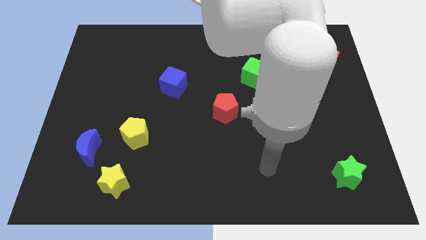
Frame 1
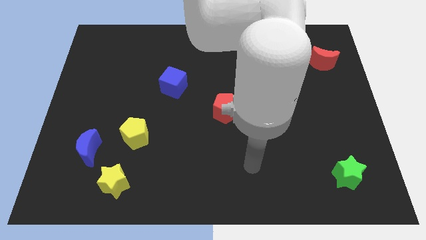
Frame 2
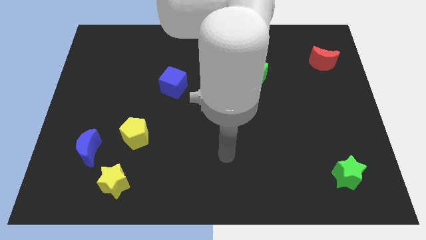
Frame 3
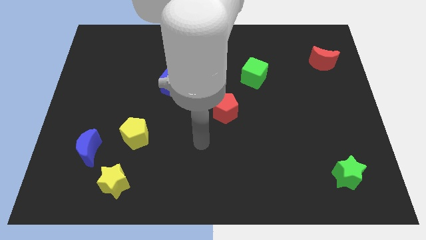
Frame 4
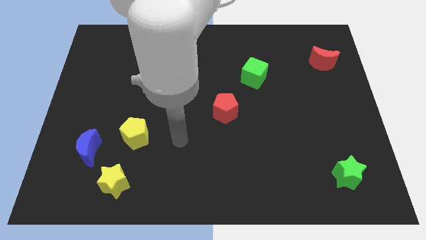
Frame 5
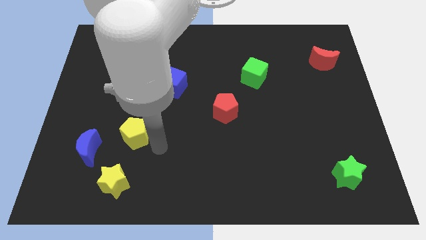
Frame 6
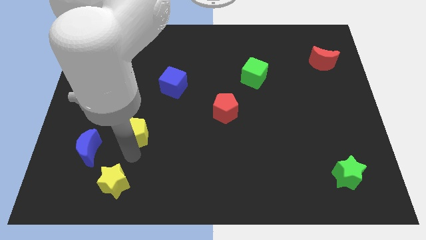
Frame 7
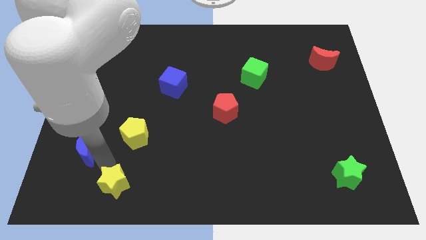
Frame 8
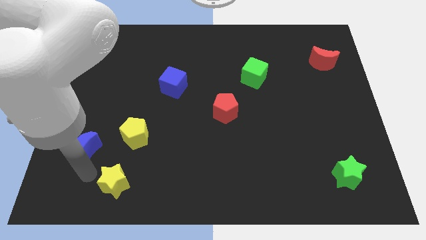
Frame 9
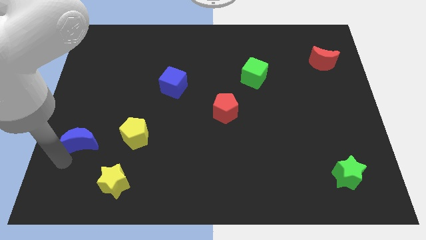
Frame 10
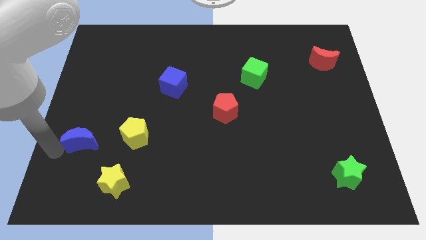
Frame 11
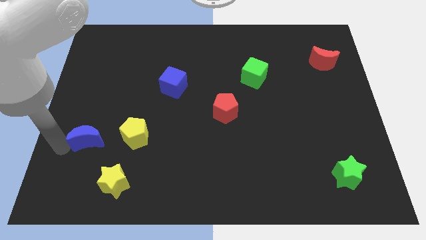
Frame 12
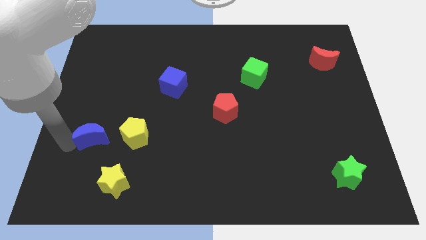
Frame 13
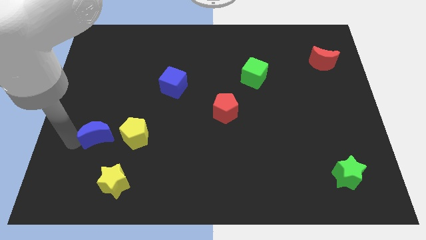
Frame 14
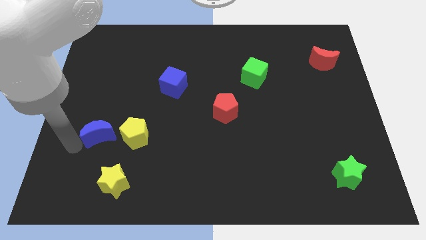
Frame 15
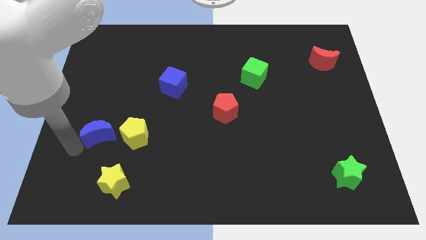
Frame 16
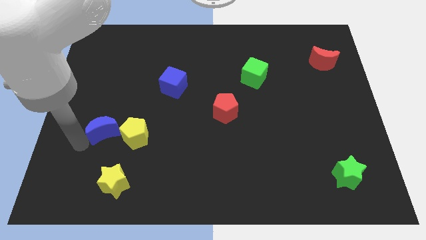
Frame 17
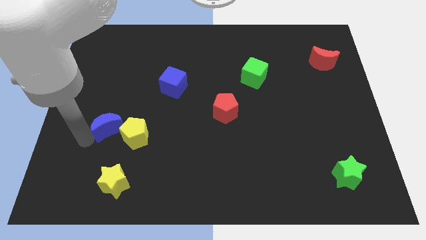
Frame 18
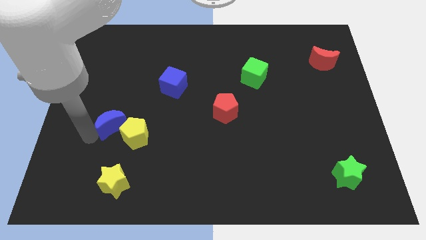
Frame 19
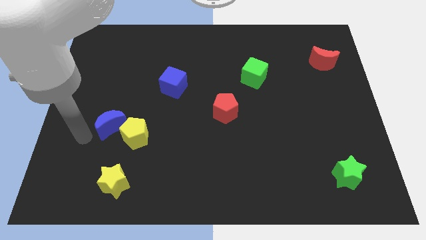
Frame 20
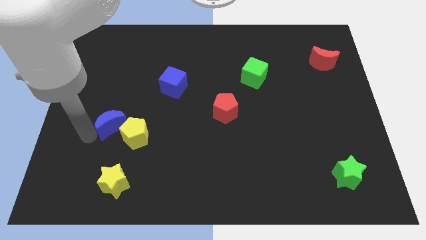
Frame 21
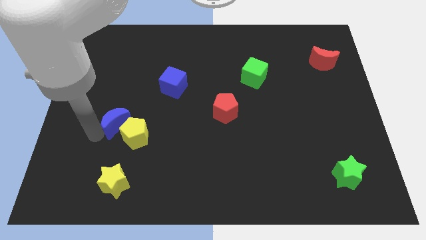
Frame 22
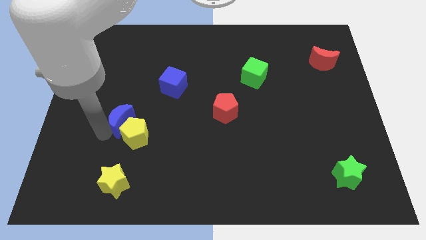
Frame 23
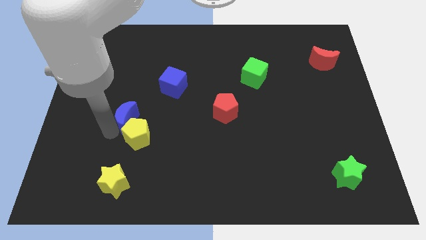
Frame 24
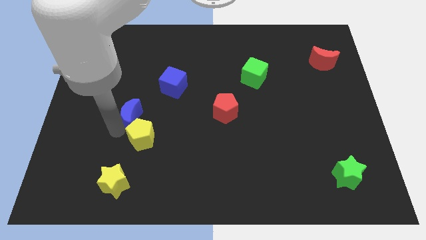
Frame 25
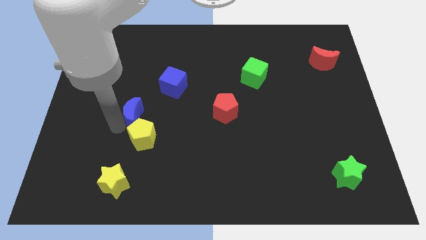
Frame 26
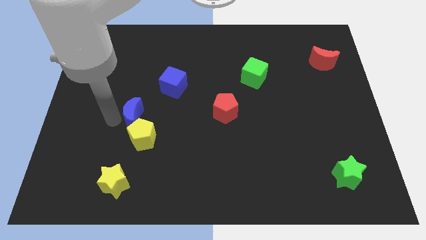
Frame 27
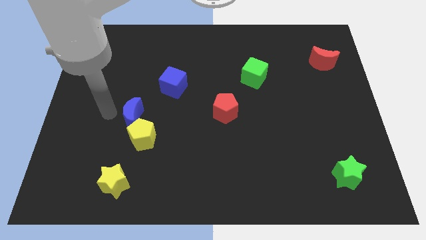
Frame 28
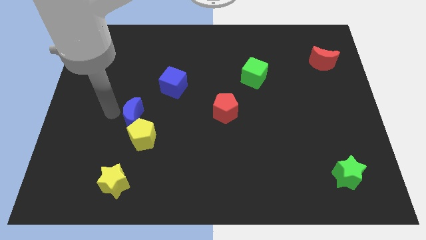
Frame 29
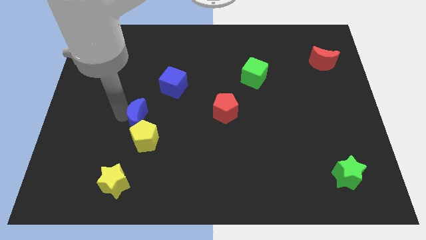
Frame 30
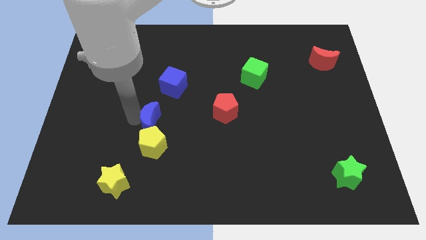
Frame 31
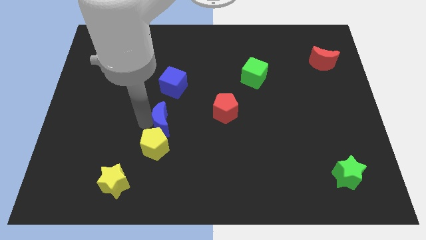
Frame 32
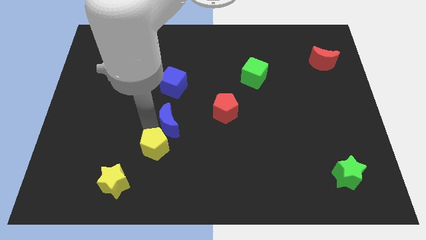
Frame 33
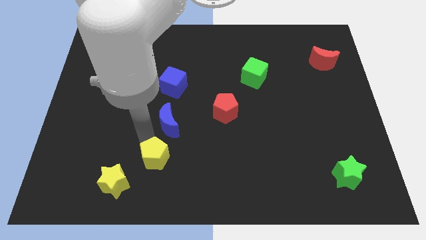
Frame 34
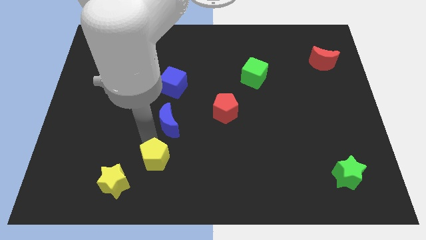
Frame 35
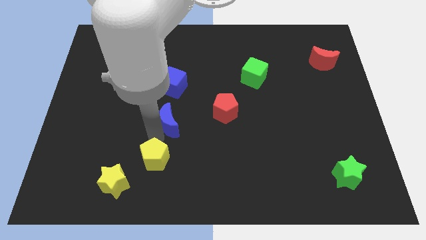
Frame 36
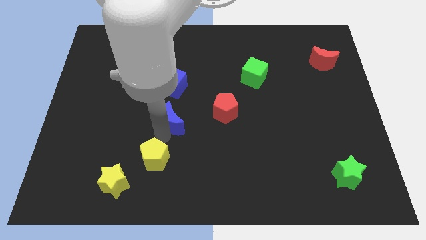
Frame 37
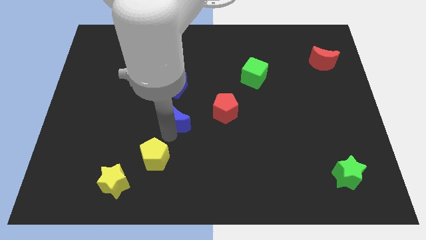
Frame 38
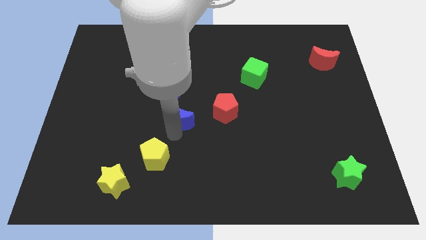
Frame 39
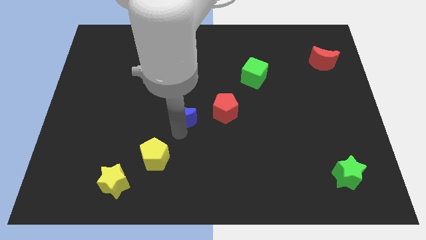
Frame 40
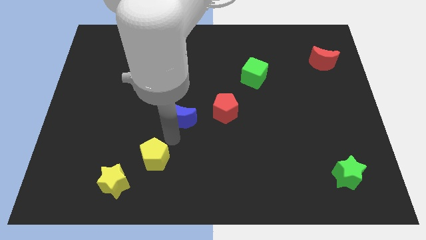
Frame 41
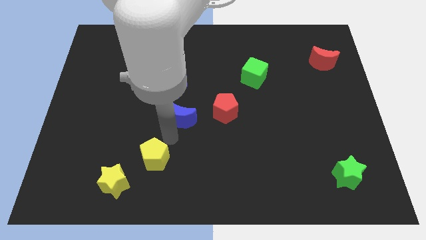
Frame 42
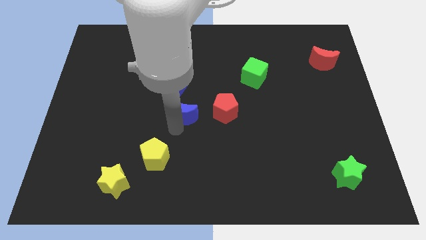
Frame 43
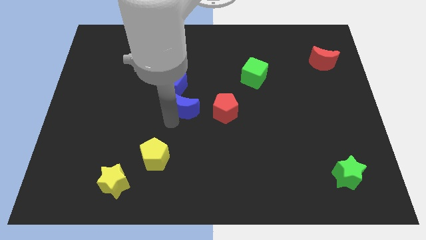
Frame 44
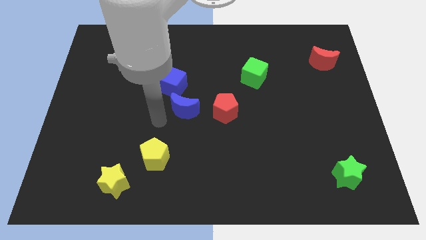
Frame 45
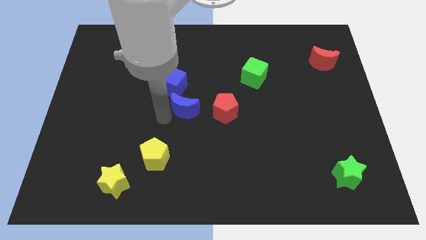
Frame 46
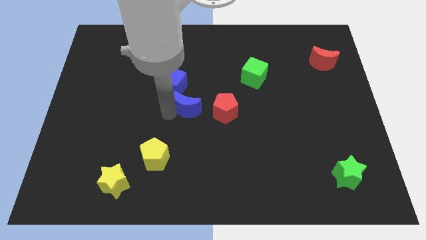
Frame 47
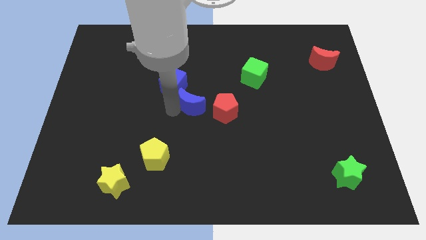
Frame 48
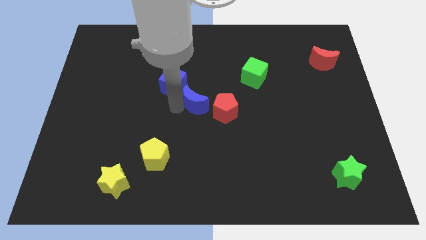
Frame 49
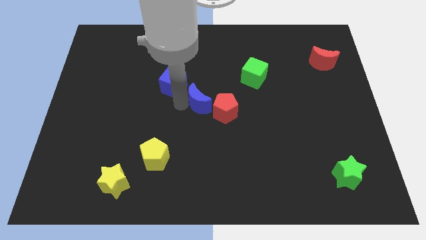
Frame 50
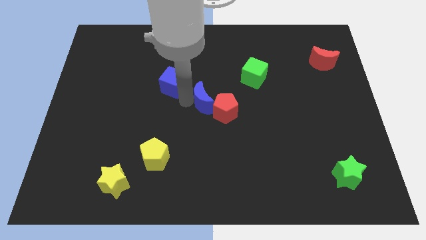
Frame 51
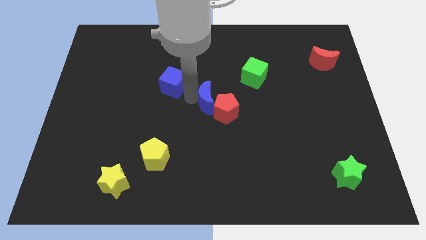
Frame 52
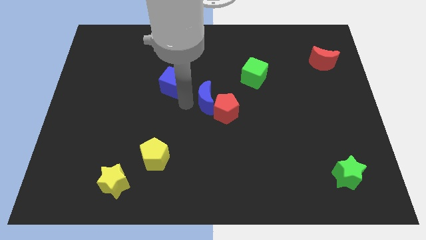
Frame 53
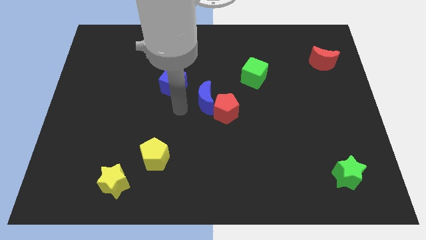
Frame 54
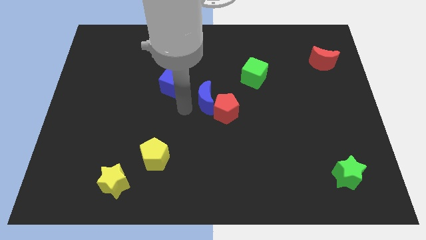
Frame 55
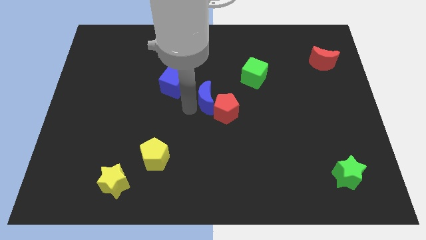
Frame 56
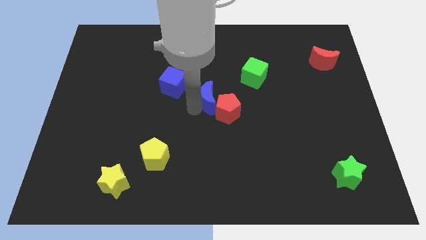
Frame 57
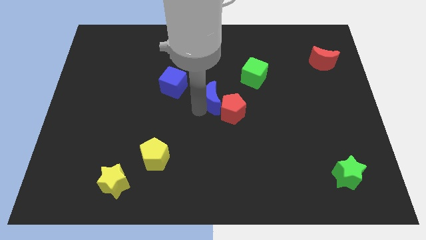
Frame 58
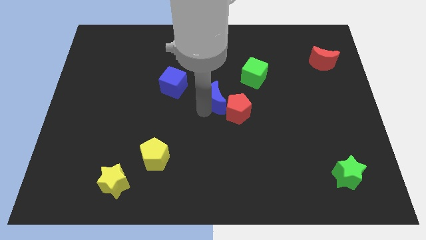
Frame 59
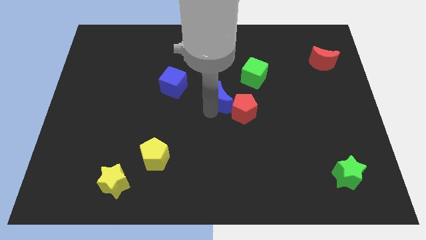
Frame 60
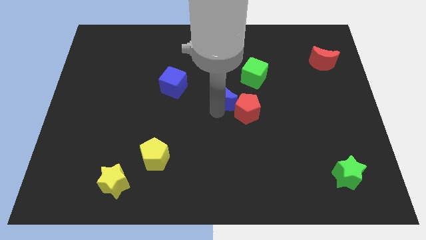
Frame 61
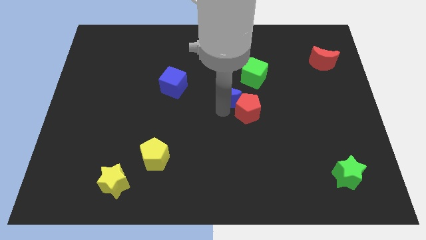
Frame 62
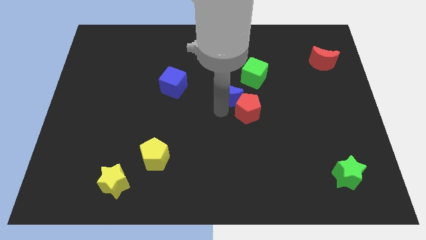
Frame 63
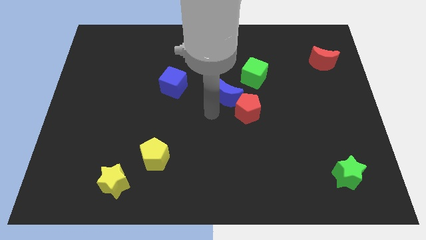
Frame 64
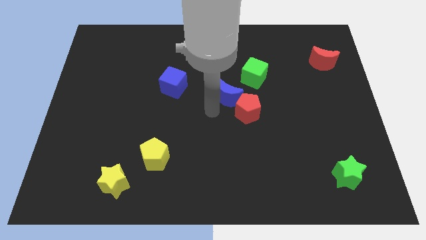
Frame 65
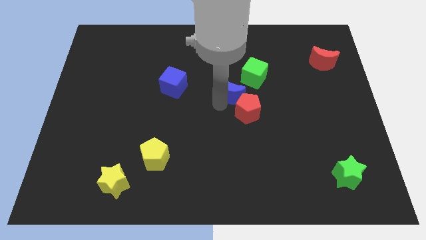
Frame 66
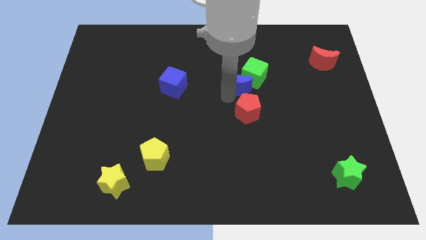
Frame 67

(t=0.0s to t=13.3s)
push the blue moon next to the green cube

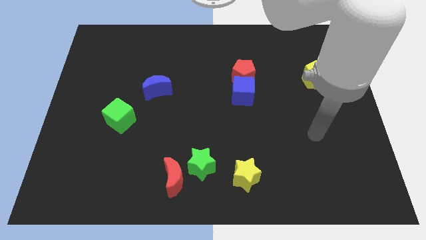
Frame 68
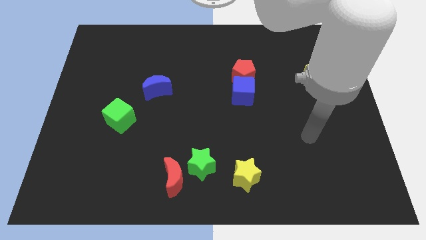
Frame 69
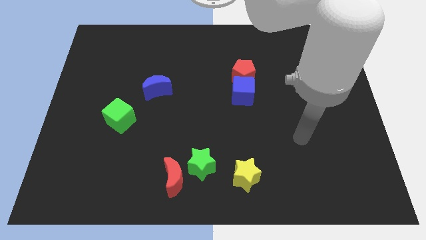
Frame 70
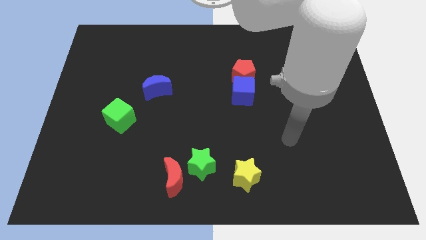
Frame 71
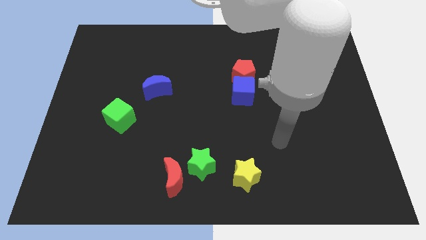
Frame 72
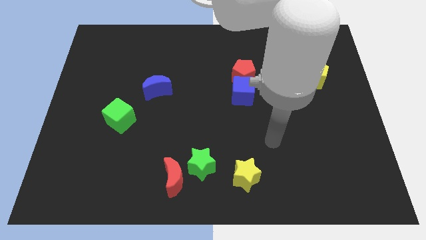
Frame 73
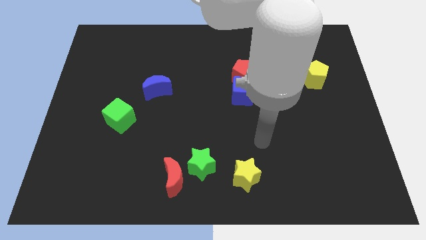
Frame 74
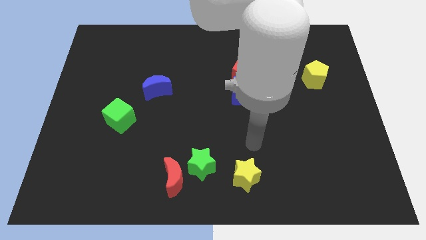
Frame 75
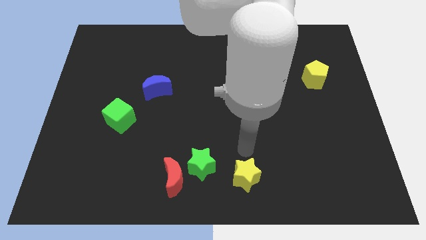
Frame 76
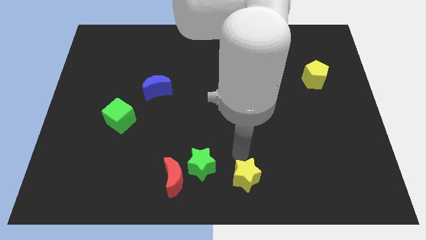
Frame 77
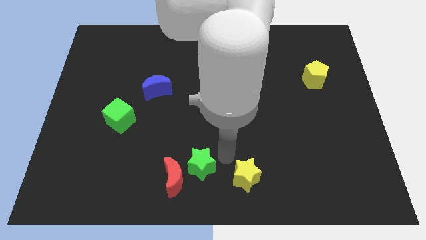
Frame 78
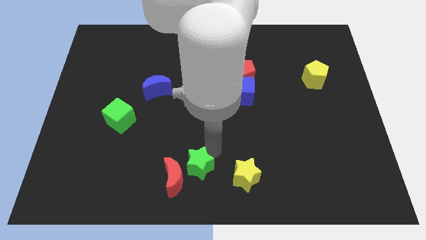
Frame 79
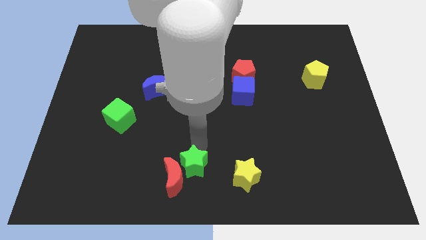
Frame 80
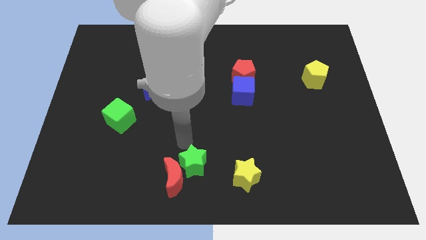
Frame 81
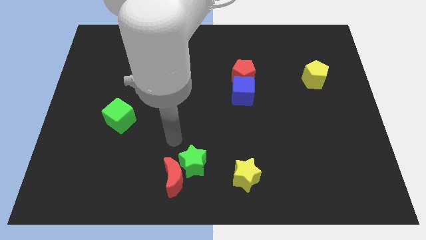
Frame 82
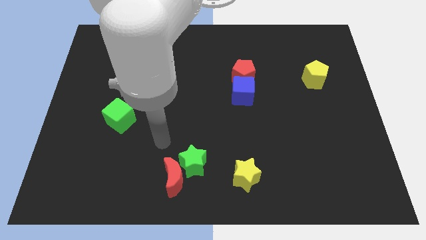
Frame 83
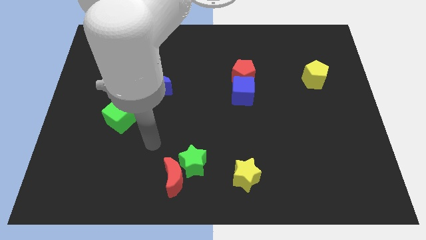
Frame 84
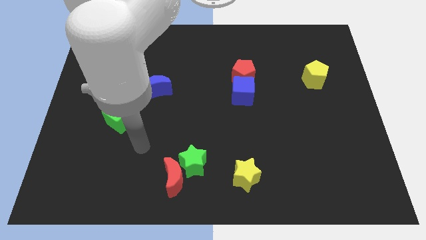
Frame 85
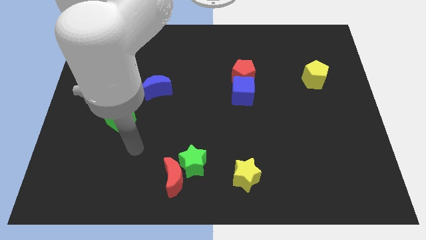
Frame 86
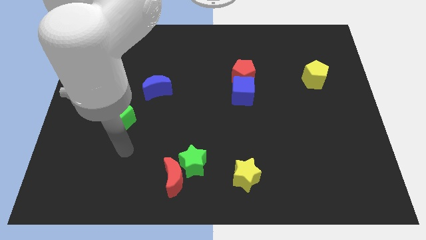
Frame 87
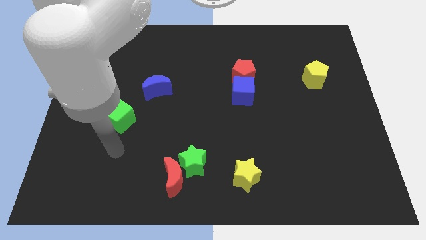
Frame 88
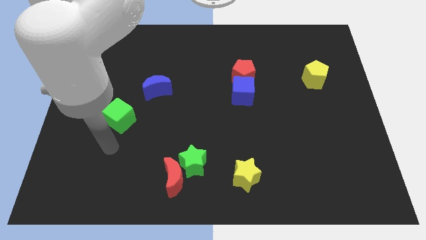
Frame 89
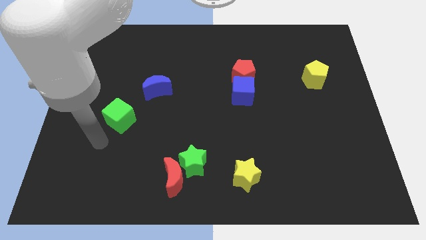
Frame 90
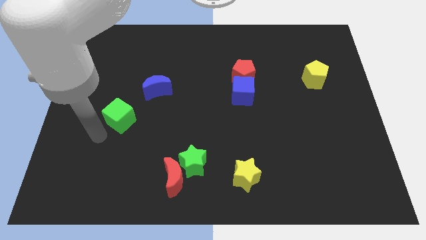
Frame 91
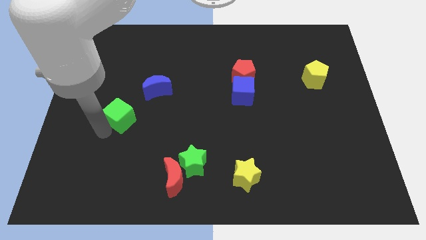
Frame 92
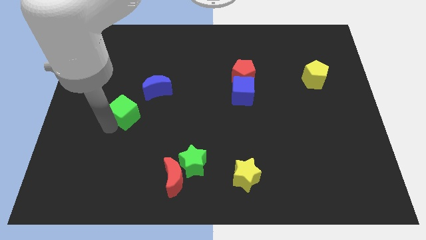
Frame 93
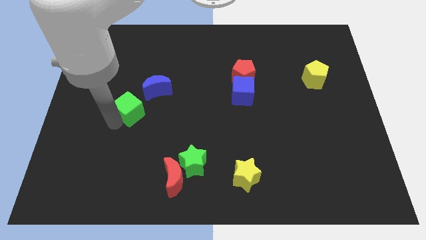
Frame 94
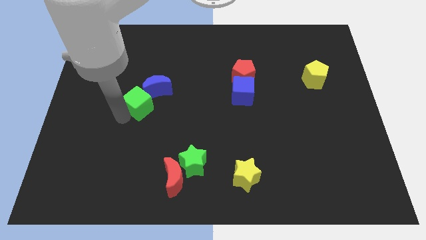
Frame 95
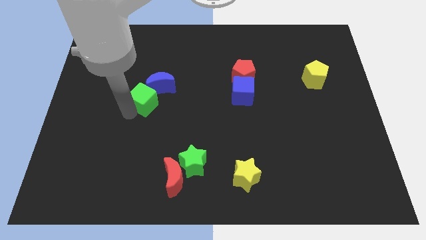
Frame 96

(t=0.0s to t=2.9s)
put the green cube next to the blue moon
